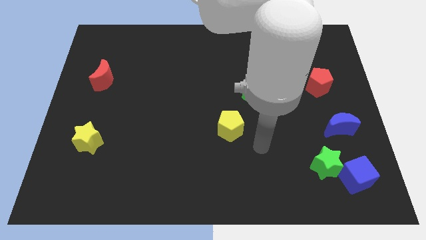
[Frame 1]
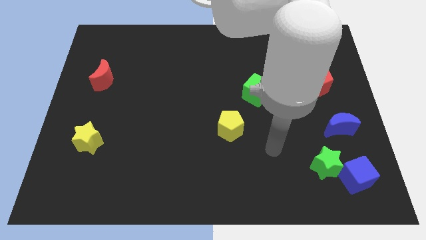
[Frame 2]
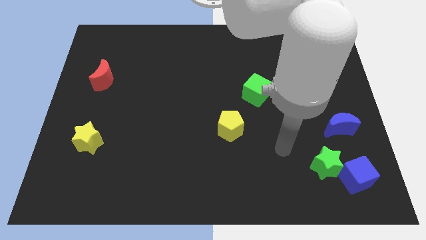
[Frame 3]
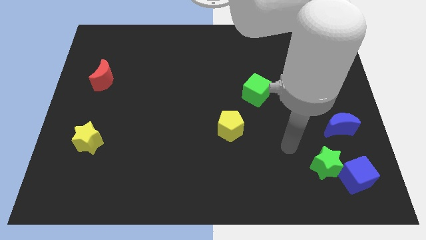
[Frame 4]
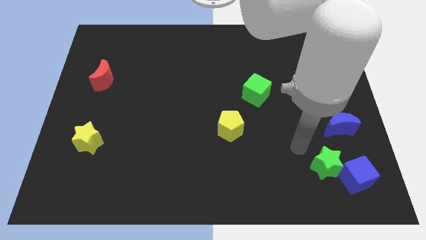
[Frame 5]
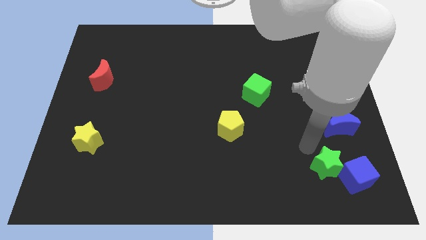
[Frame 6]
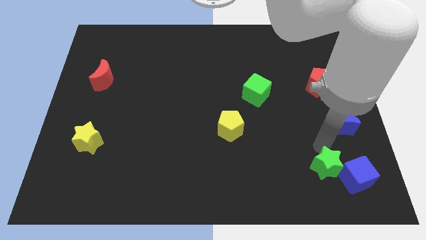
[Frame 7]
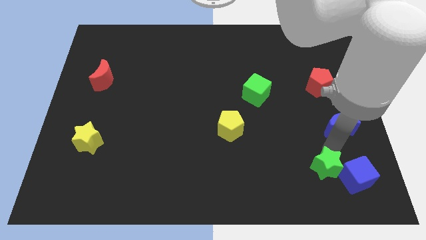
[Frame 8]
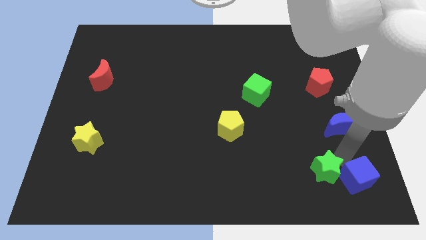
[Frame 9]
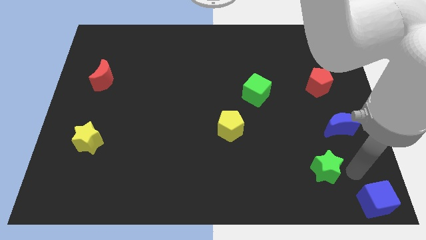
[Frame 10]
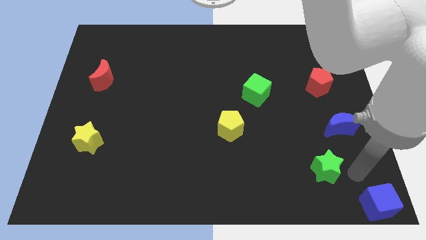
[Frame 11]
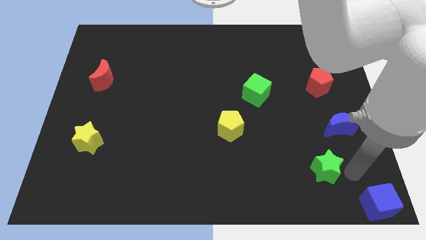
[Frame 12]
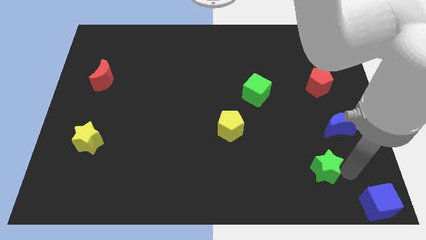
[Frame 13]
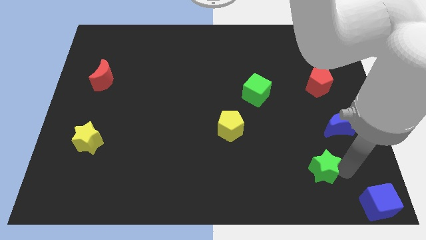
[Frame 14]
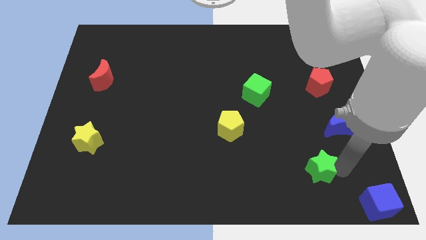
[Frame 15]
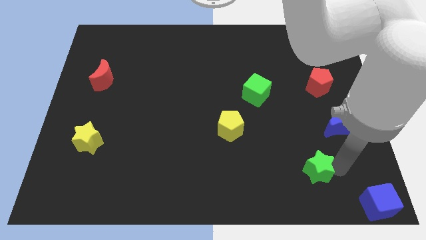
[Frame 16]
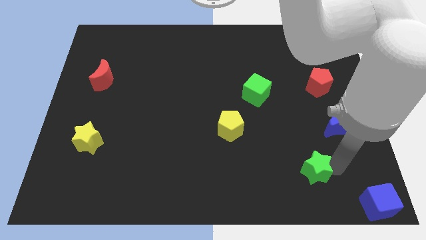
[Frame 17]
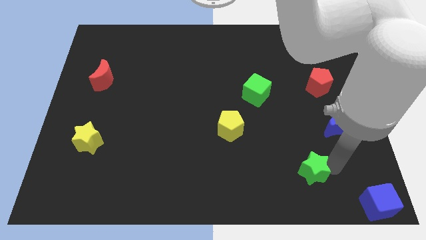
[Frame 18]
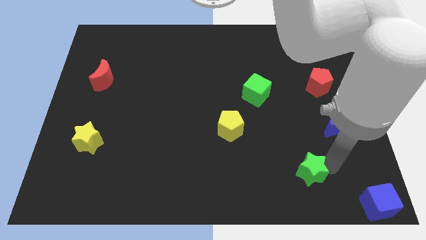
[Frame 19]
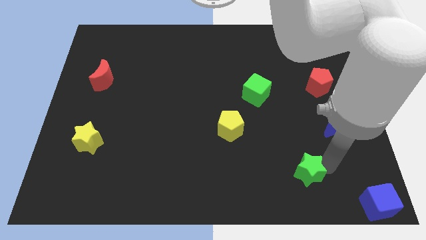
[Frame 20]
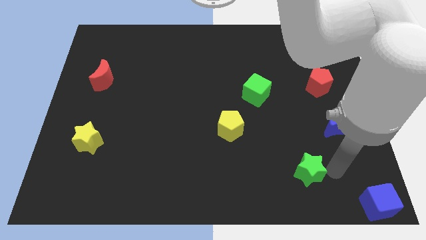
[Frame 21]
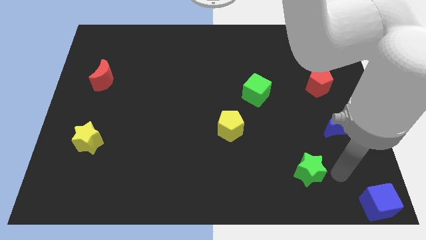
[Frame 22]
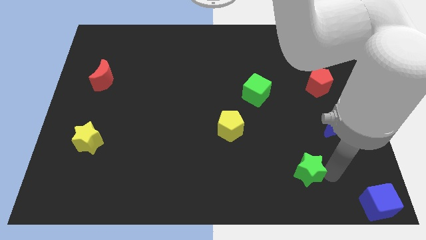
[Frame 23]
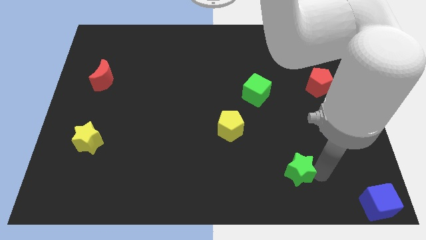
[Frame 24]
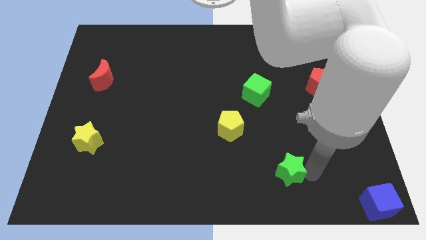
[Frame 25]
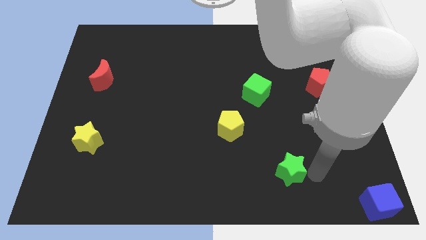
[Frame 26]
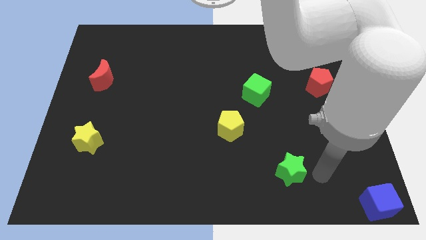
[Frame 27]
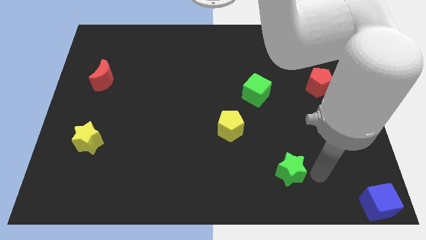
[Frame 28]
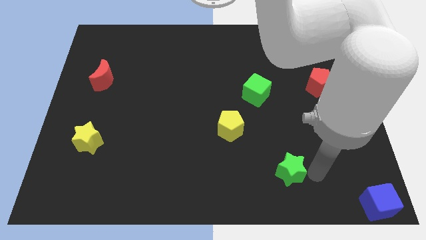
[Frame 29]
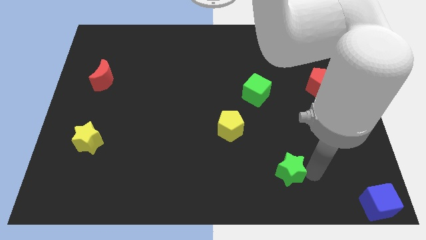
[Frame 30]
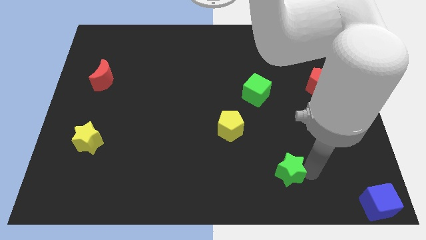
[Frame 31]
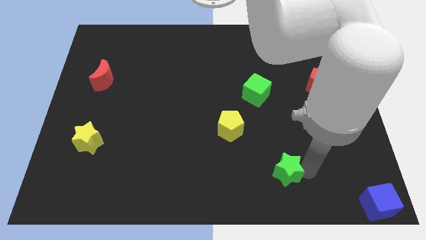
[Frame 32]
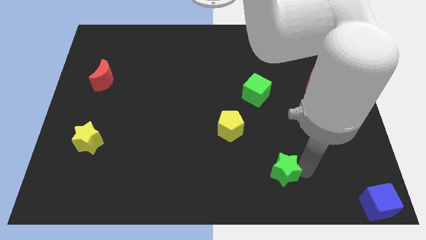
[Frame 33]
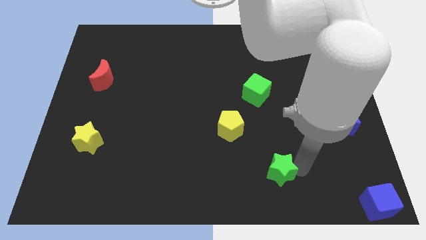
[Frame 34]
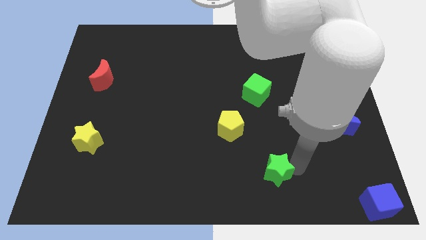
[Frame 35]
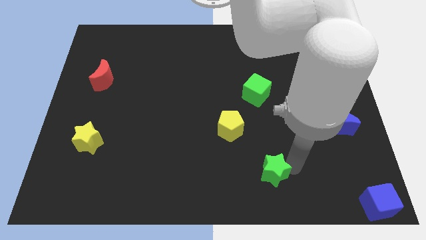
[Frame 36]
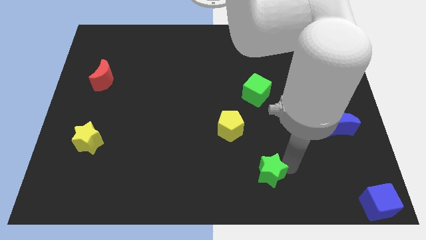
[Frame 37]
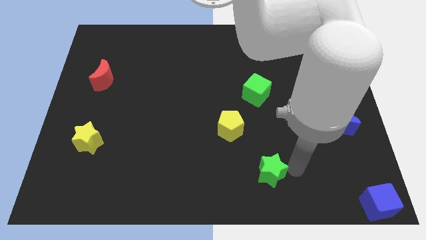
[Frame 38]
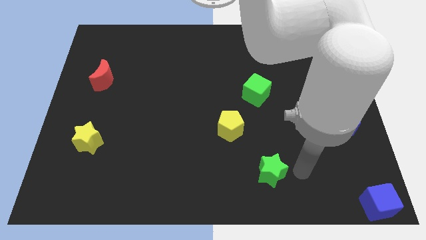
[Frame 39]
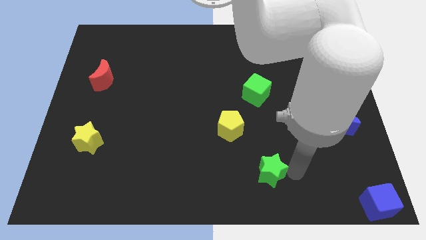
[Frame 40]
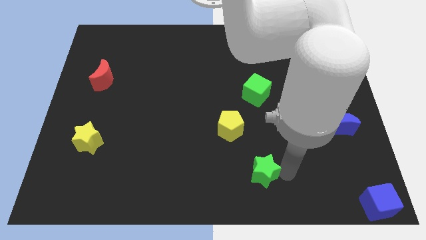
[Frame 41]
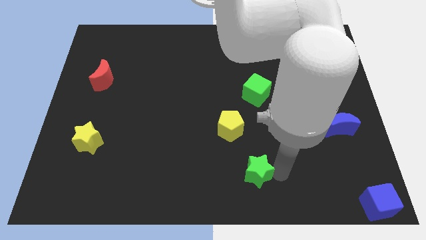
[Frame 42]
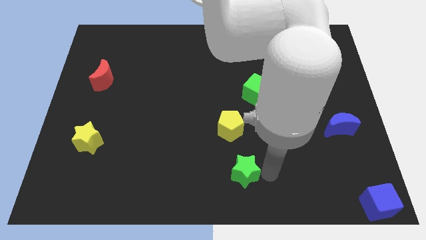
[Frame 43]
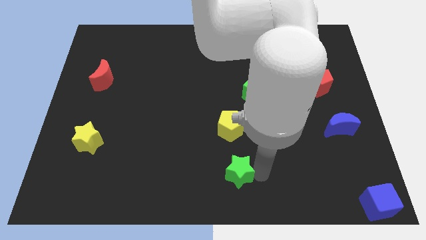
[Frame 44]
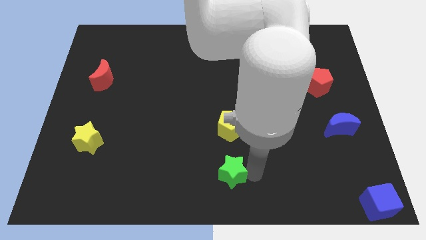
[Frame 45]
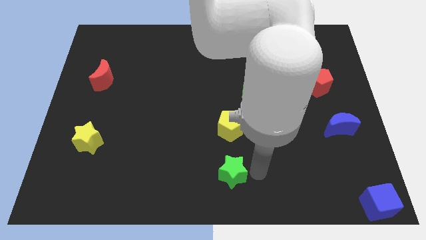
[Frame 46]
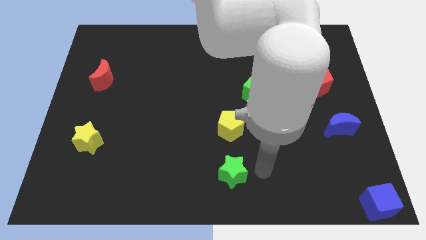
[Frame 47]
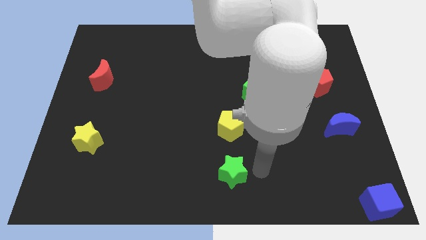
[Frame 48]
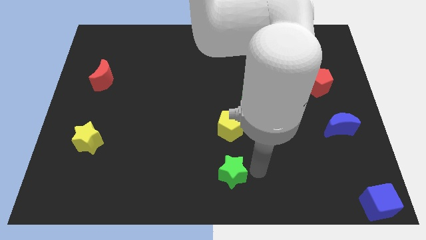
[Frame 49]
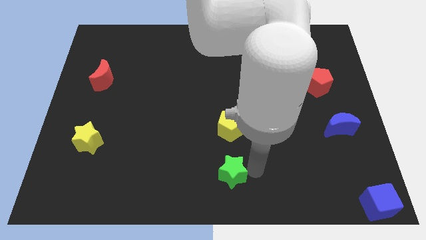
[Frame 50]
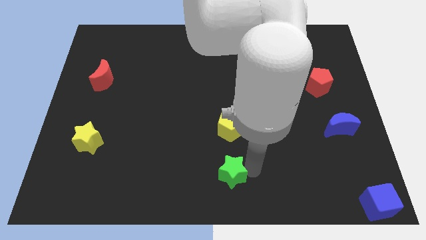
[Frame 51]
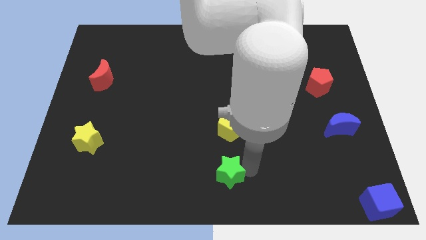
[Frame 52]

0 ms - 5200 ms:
move the green star left

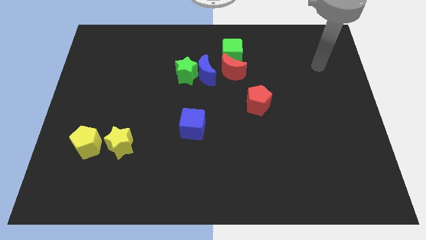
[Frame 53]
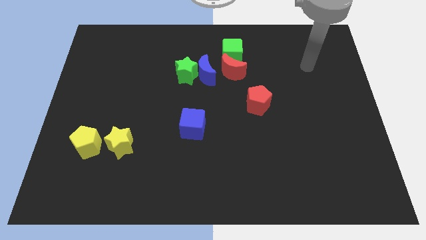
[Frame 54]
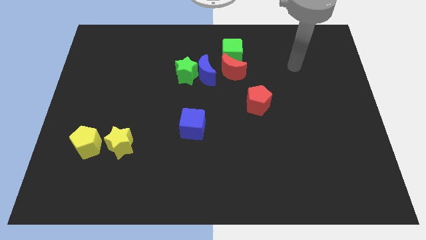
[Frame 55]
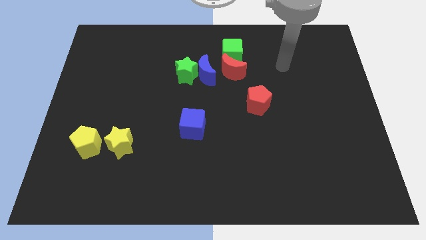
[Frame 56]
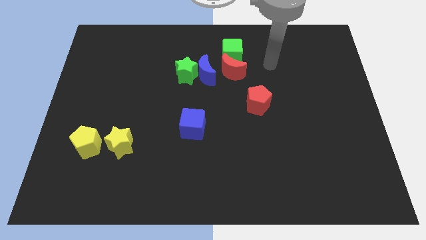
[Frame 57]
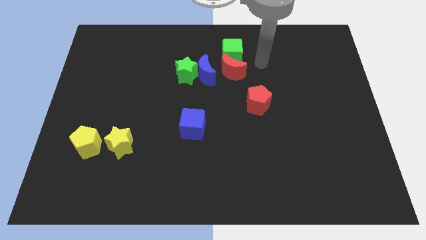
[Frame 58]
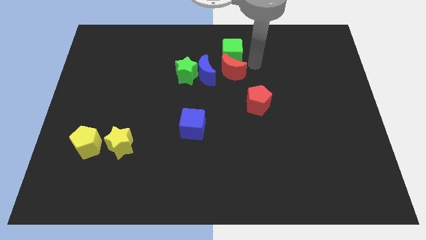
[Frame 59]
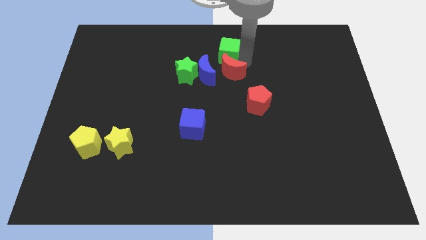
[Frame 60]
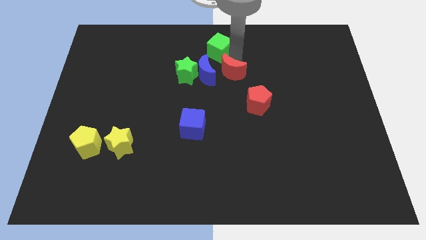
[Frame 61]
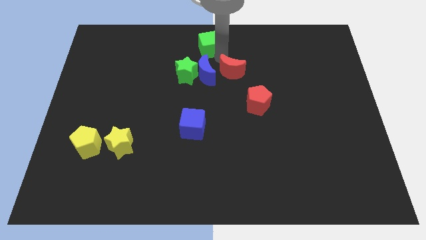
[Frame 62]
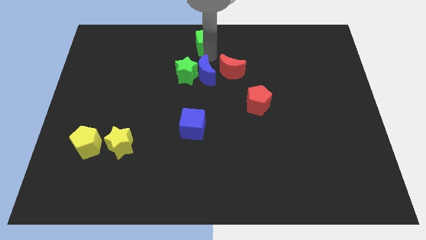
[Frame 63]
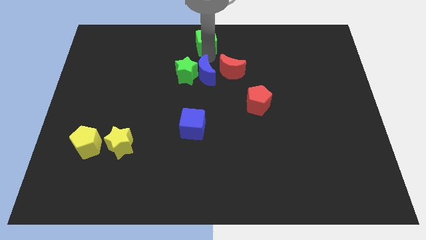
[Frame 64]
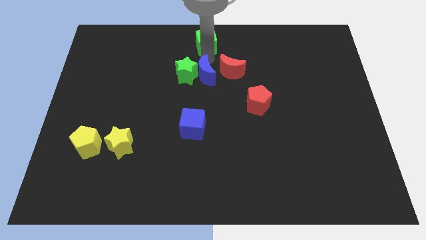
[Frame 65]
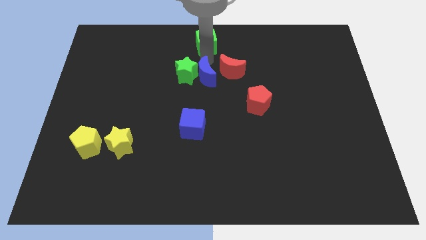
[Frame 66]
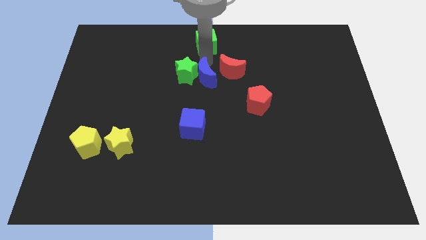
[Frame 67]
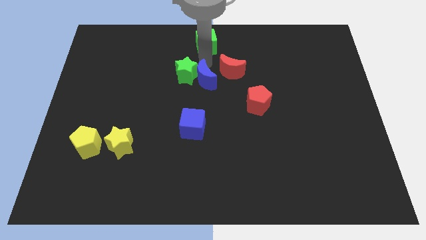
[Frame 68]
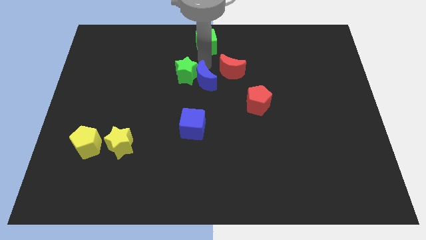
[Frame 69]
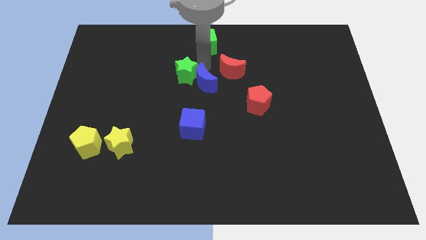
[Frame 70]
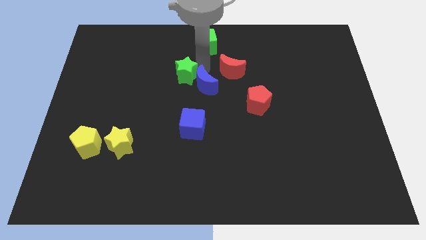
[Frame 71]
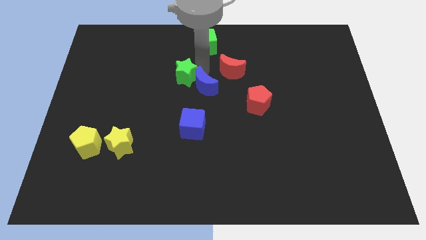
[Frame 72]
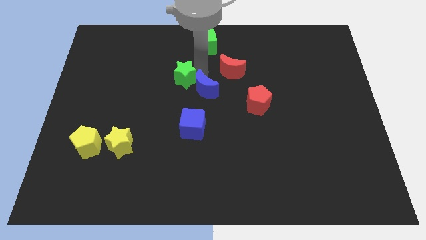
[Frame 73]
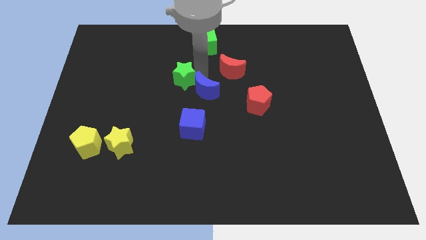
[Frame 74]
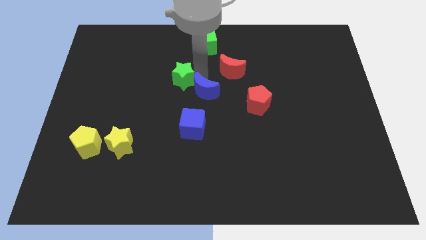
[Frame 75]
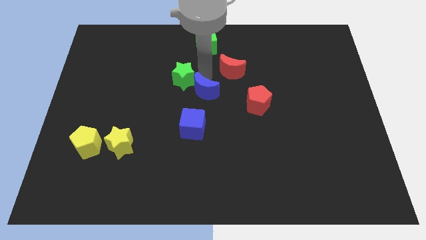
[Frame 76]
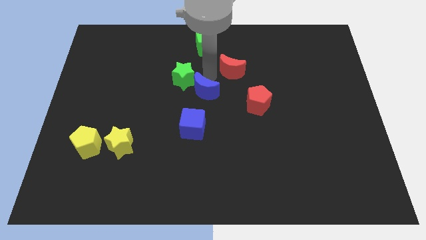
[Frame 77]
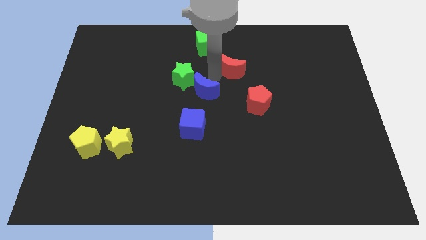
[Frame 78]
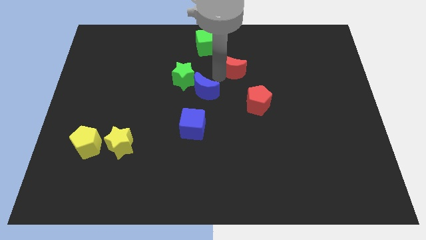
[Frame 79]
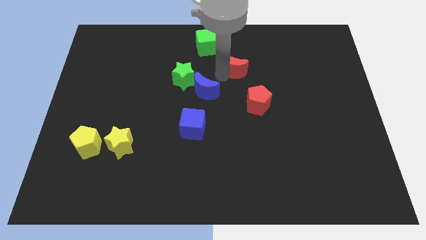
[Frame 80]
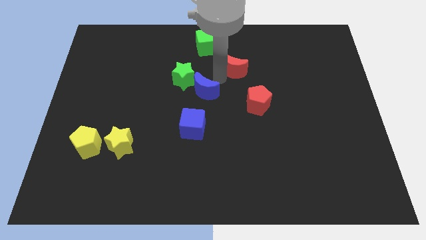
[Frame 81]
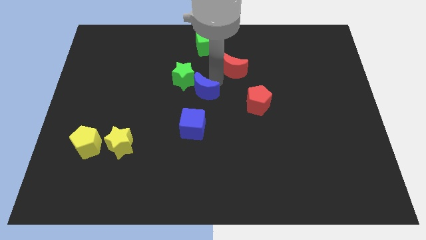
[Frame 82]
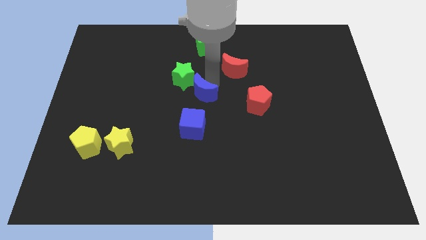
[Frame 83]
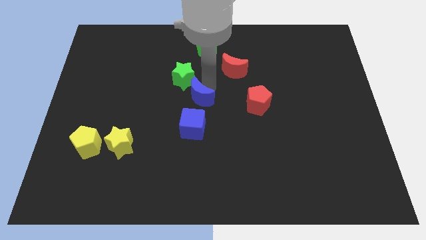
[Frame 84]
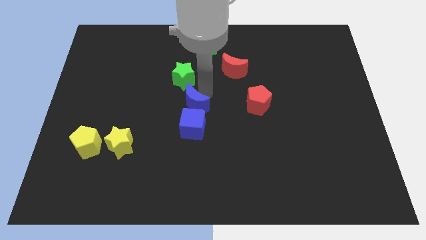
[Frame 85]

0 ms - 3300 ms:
push the blue moon a little diagonally down and to the left
